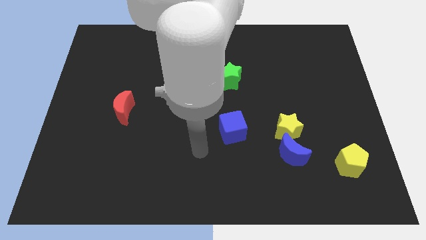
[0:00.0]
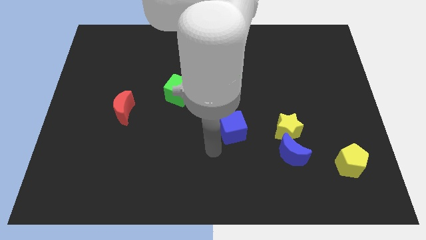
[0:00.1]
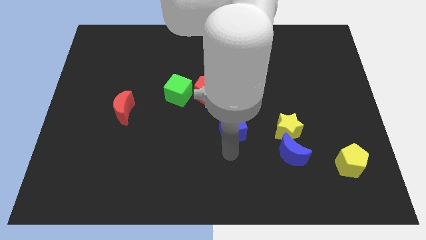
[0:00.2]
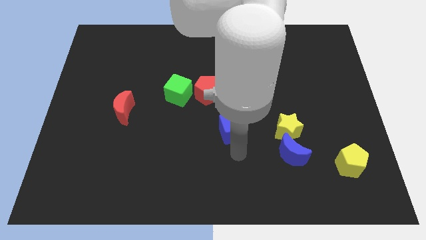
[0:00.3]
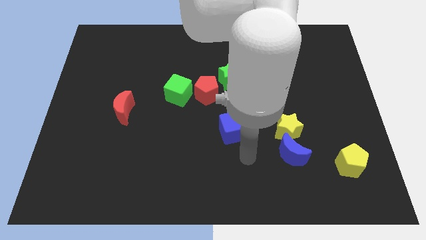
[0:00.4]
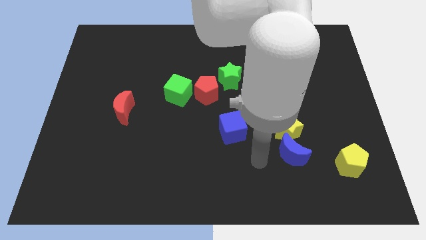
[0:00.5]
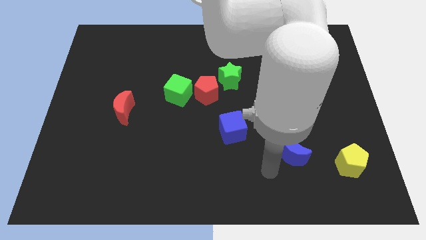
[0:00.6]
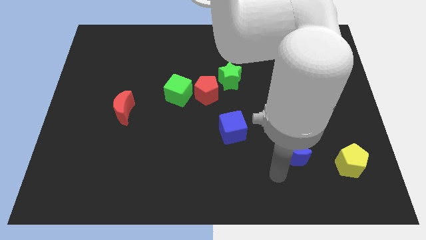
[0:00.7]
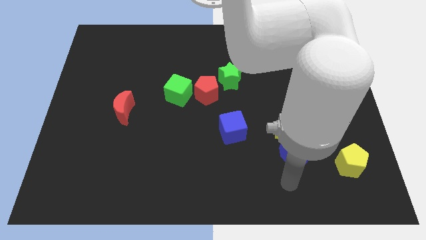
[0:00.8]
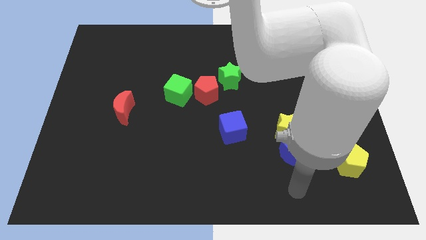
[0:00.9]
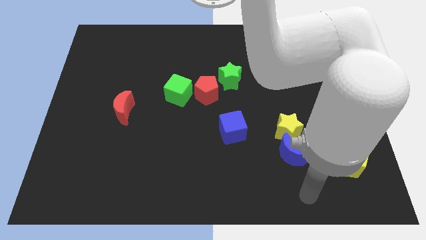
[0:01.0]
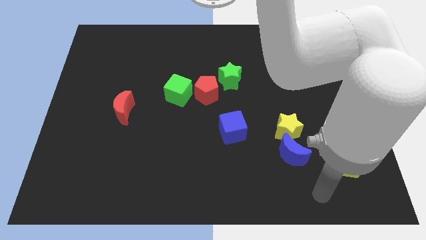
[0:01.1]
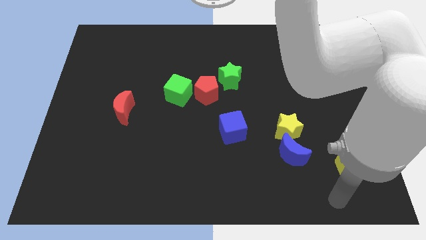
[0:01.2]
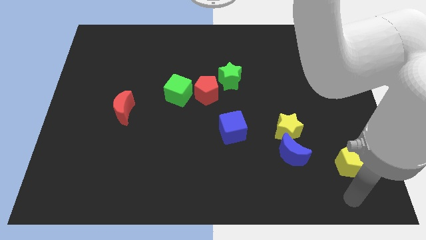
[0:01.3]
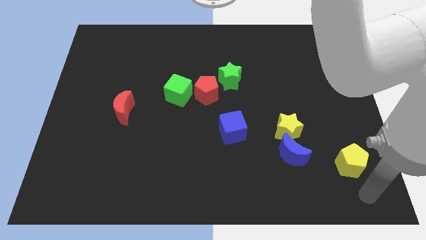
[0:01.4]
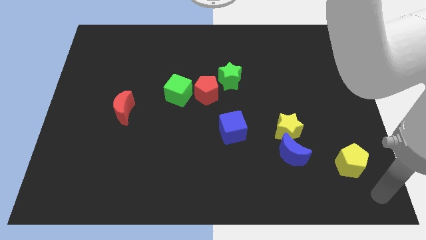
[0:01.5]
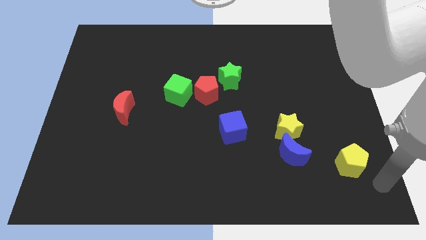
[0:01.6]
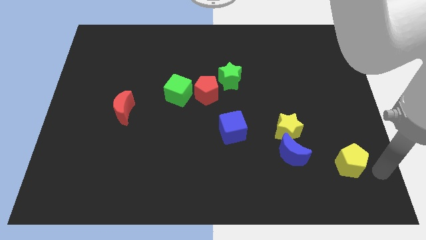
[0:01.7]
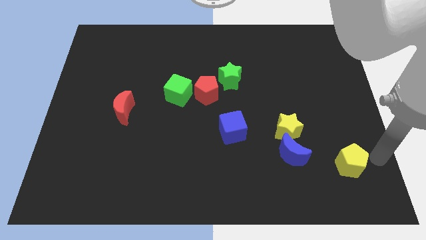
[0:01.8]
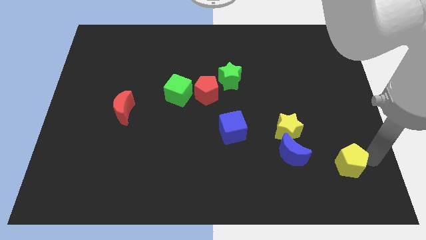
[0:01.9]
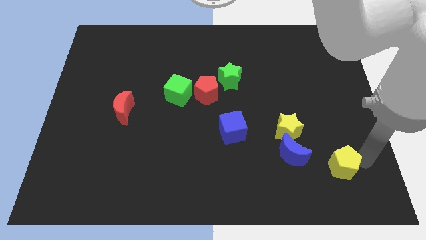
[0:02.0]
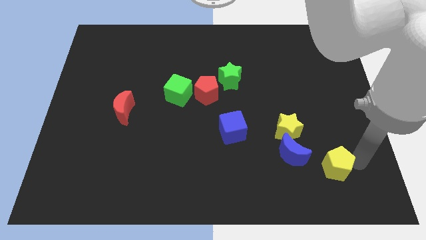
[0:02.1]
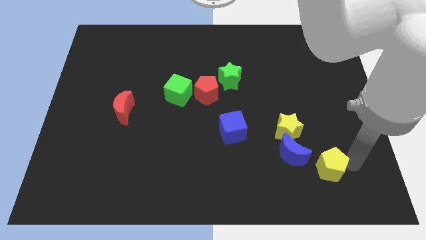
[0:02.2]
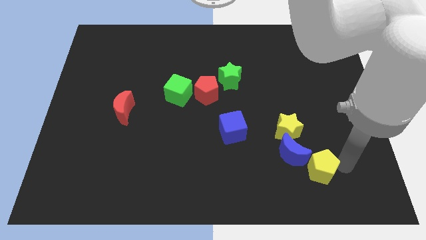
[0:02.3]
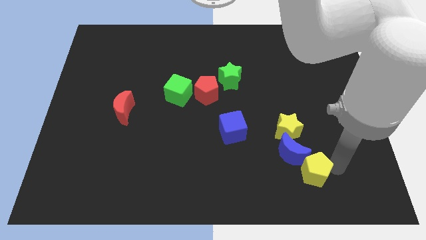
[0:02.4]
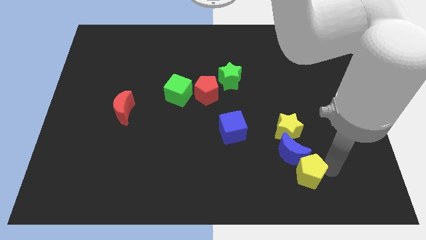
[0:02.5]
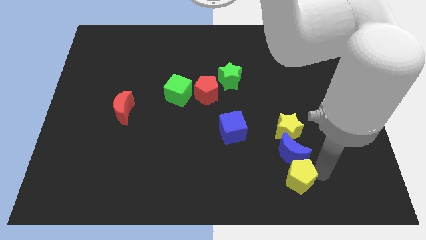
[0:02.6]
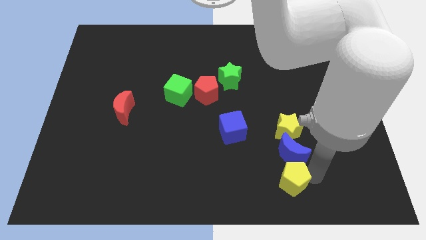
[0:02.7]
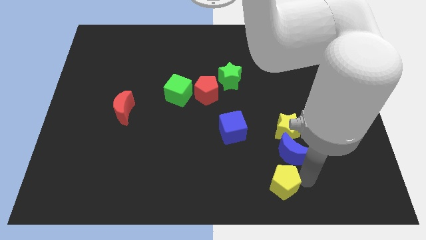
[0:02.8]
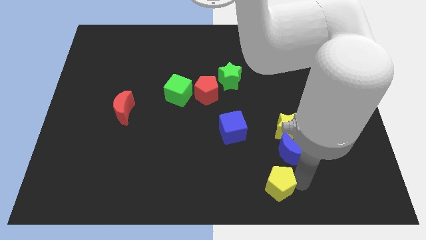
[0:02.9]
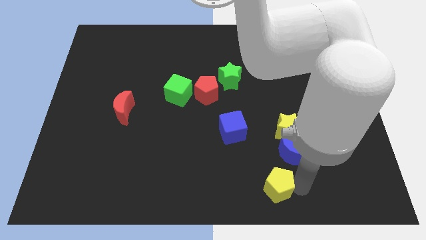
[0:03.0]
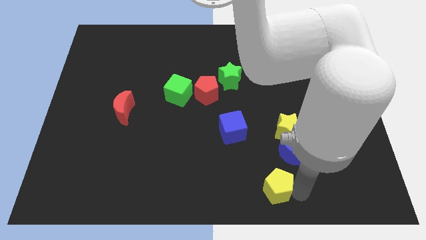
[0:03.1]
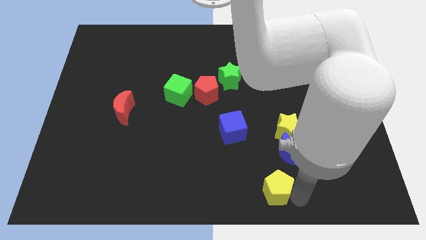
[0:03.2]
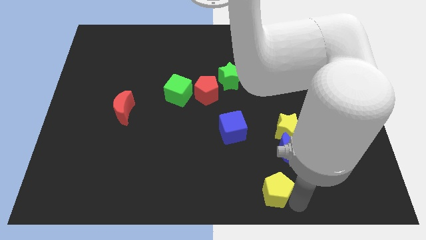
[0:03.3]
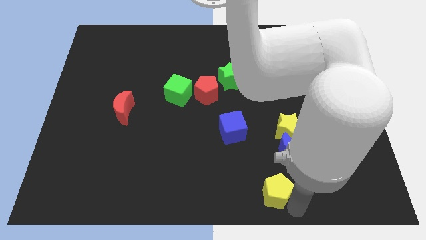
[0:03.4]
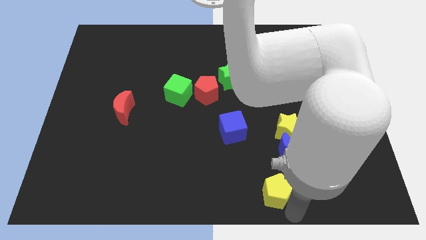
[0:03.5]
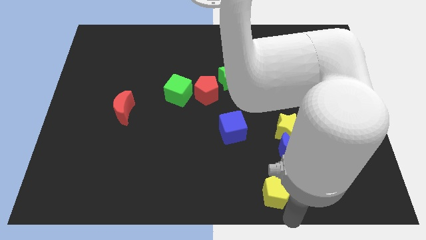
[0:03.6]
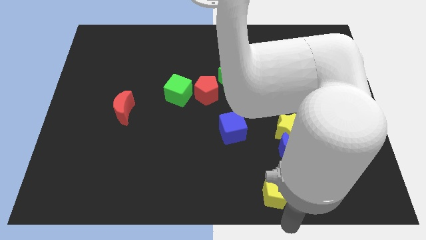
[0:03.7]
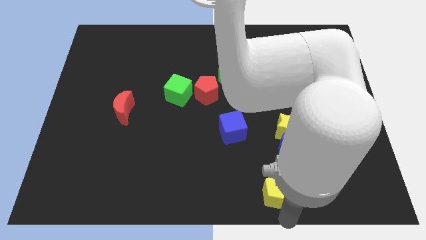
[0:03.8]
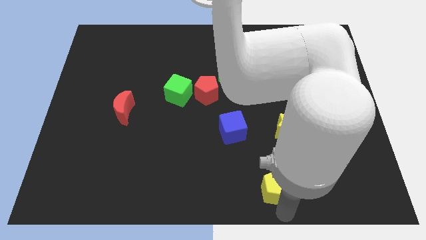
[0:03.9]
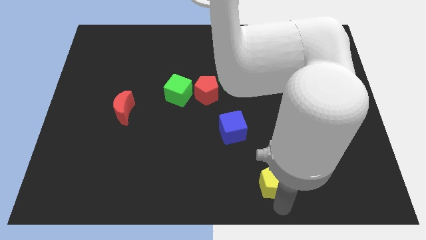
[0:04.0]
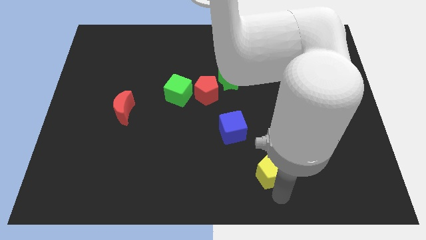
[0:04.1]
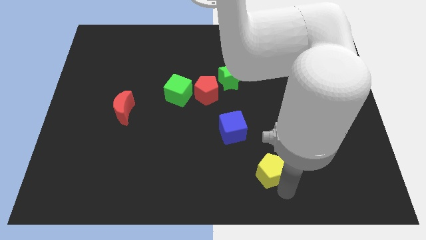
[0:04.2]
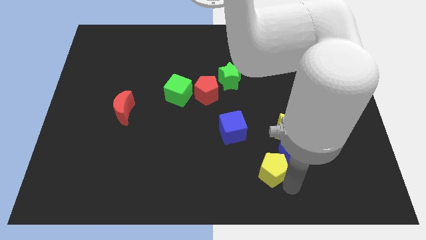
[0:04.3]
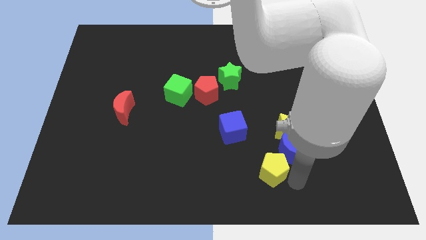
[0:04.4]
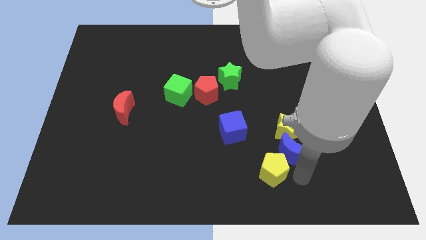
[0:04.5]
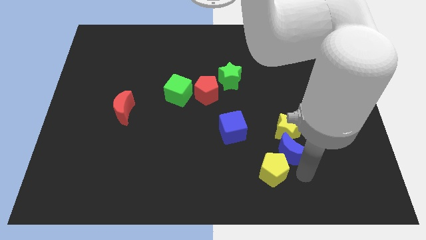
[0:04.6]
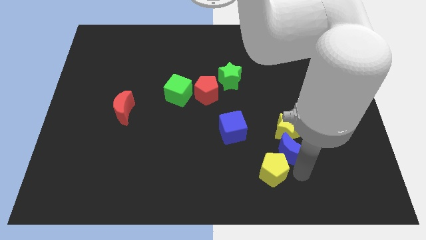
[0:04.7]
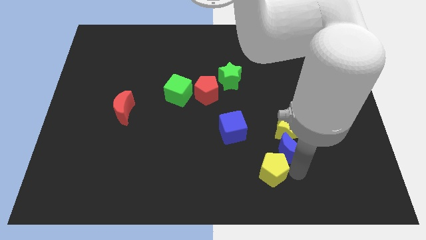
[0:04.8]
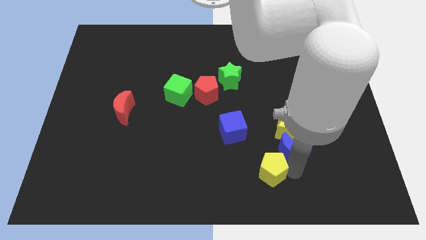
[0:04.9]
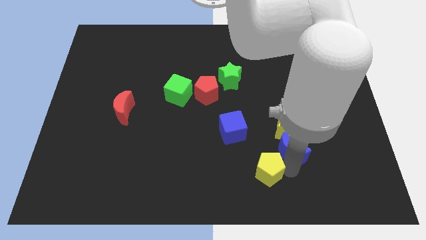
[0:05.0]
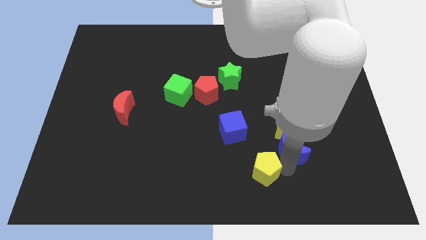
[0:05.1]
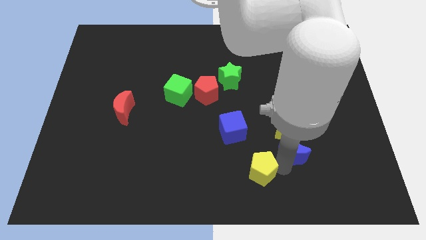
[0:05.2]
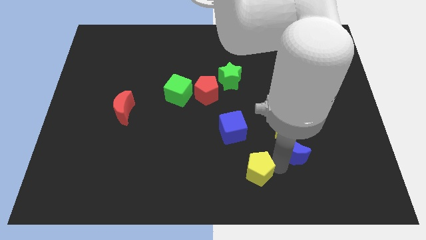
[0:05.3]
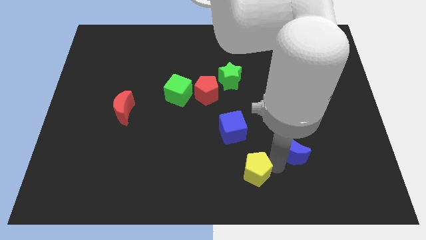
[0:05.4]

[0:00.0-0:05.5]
move the yellow pentagon to the left

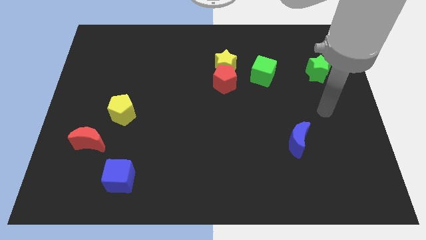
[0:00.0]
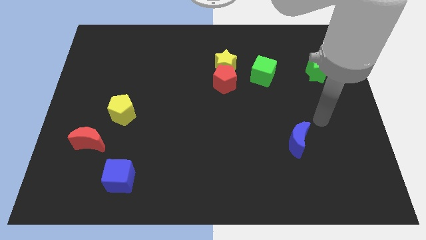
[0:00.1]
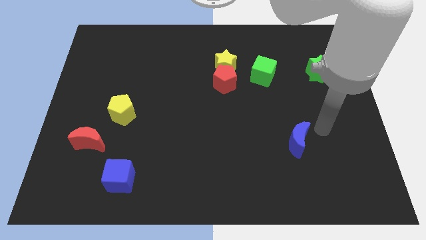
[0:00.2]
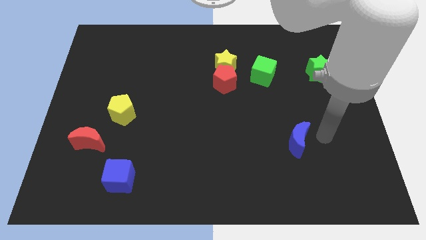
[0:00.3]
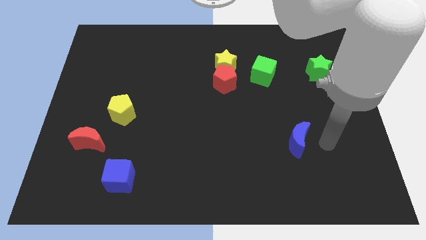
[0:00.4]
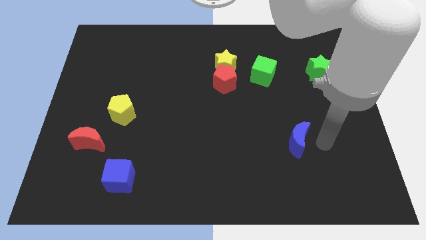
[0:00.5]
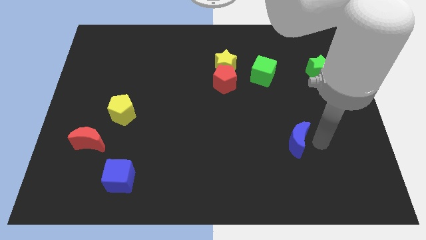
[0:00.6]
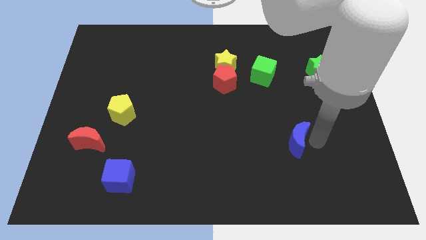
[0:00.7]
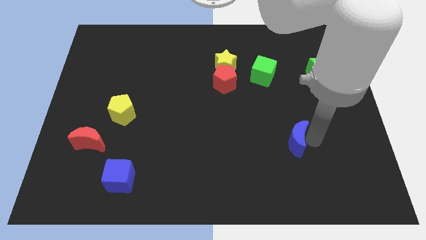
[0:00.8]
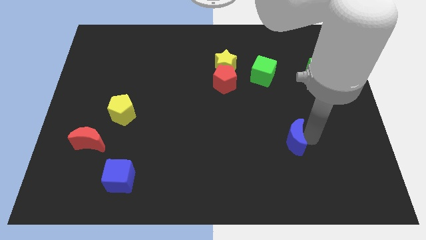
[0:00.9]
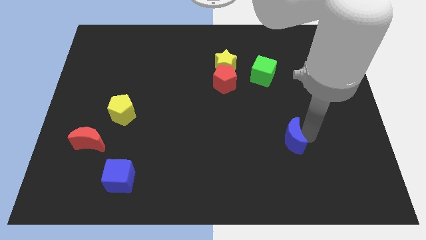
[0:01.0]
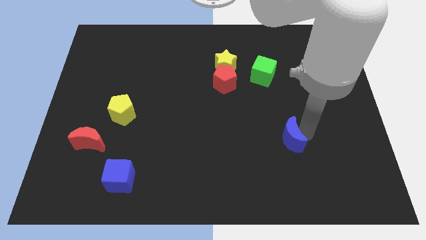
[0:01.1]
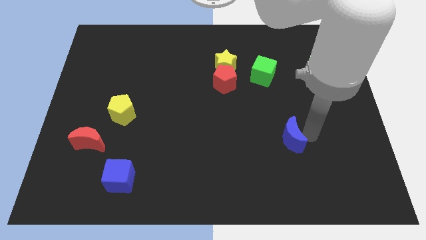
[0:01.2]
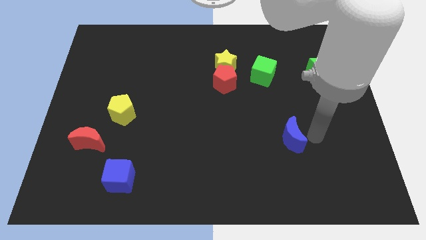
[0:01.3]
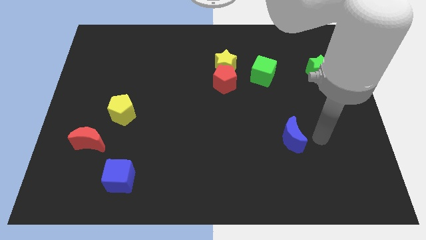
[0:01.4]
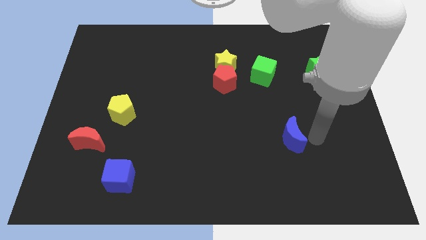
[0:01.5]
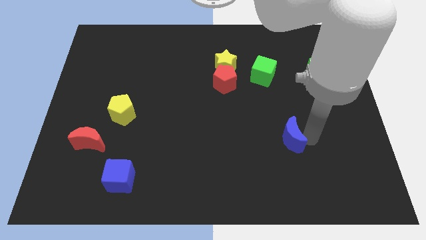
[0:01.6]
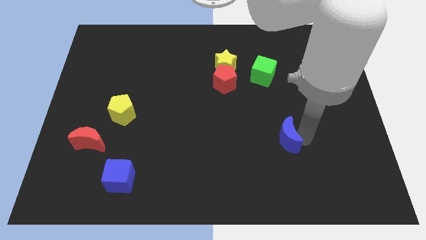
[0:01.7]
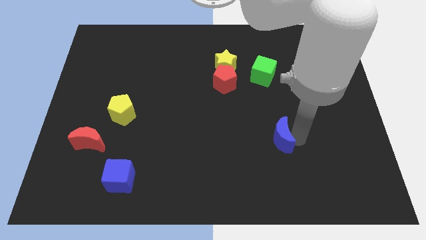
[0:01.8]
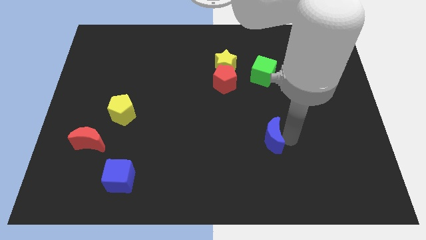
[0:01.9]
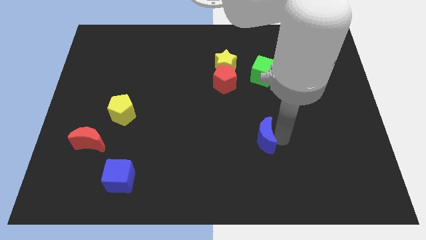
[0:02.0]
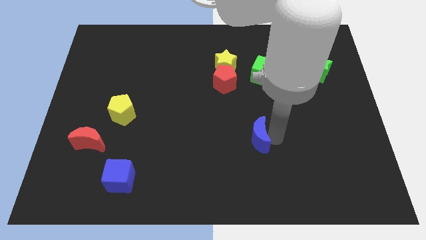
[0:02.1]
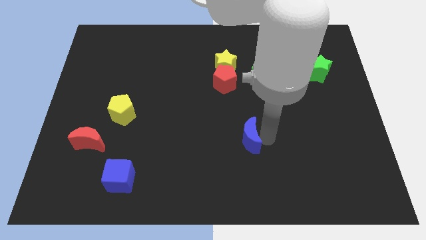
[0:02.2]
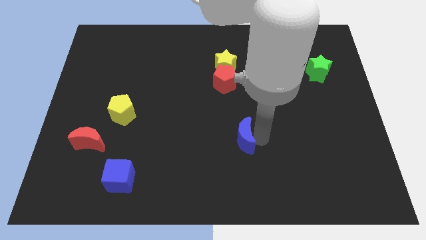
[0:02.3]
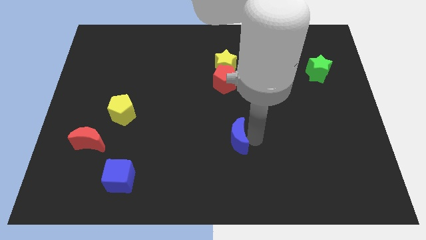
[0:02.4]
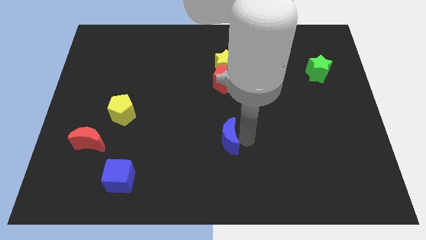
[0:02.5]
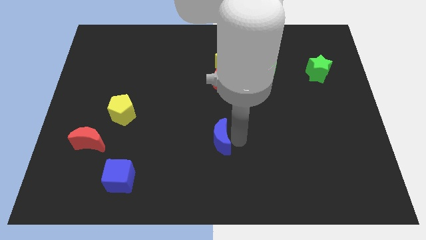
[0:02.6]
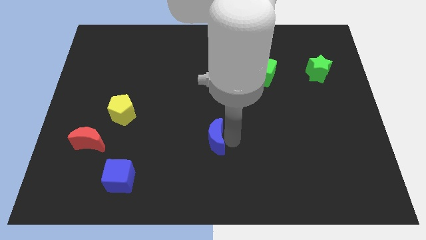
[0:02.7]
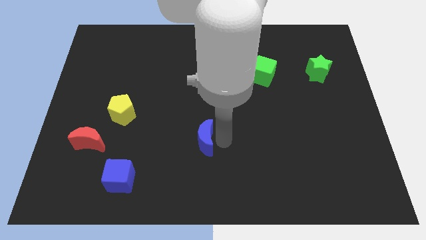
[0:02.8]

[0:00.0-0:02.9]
slide the blue moon to the left

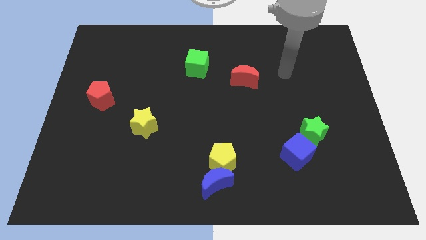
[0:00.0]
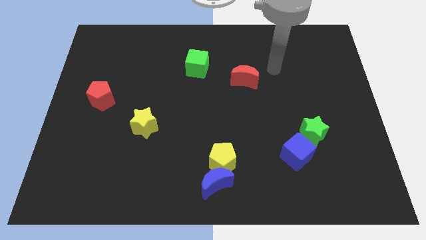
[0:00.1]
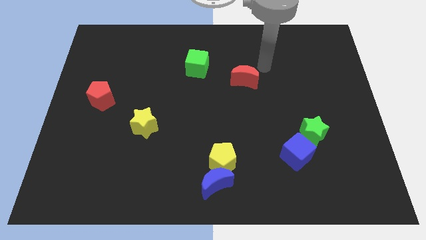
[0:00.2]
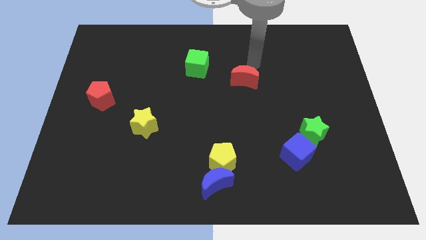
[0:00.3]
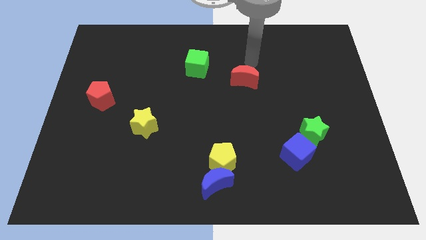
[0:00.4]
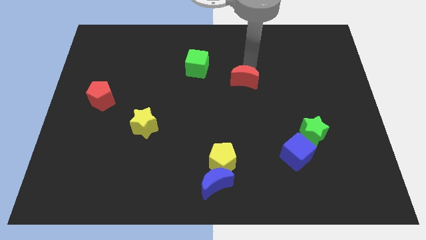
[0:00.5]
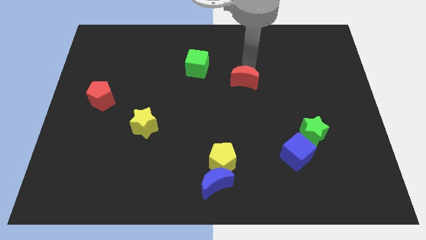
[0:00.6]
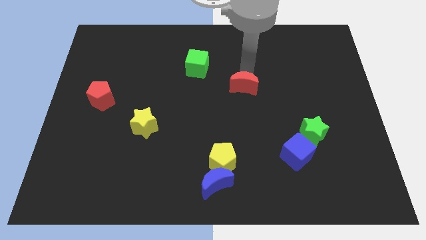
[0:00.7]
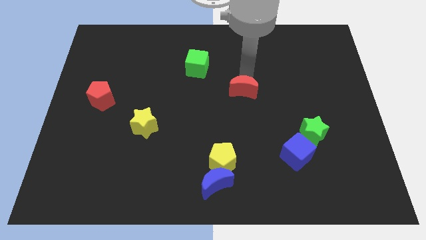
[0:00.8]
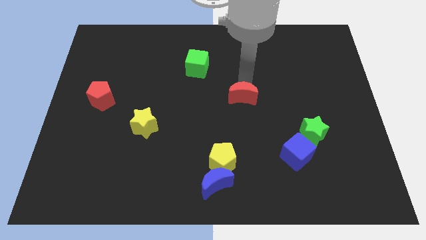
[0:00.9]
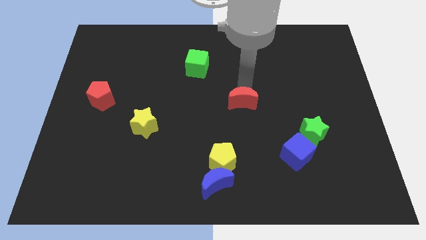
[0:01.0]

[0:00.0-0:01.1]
slightly move the red moon downwards
